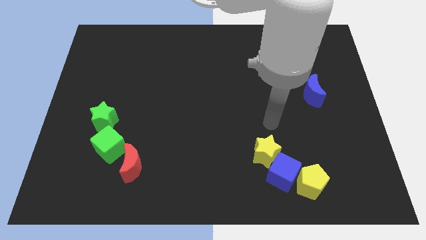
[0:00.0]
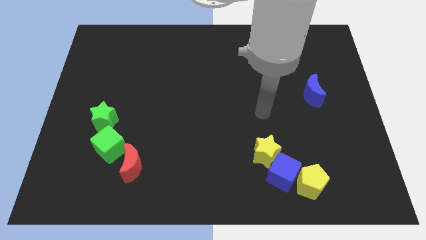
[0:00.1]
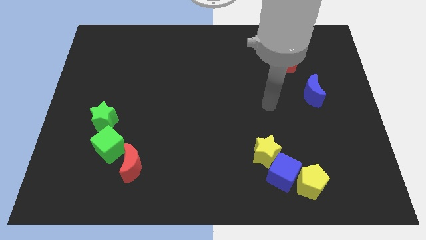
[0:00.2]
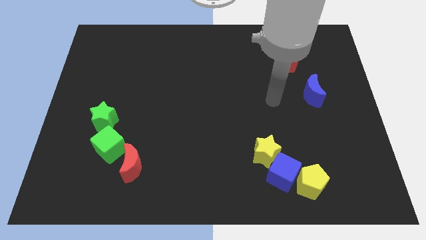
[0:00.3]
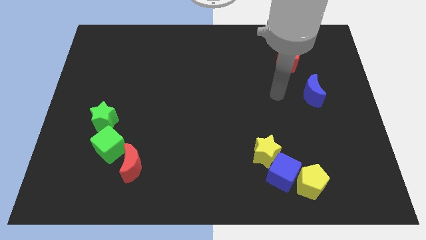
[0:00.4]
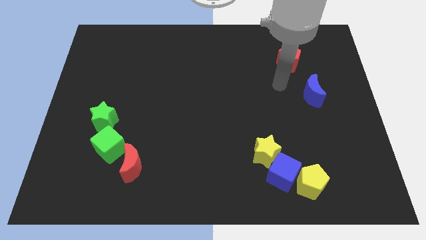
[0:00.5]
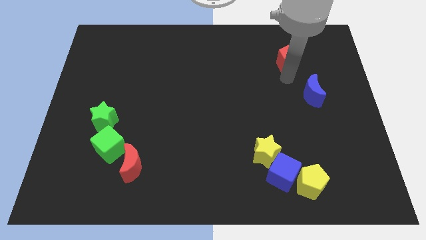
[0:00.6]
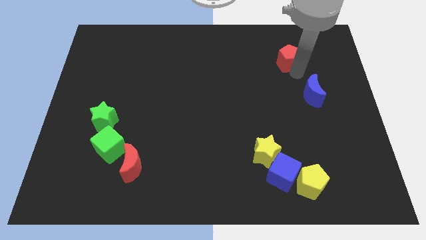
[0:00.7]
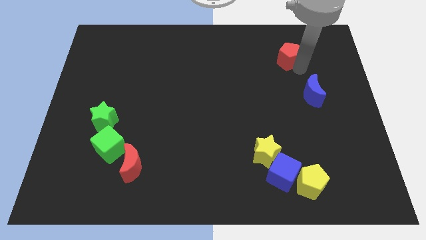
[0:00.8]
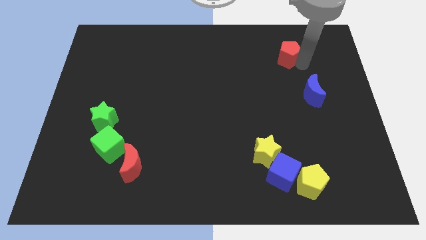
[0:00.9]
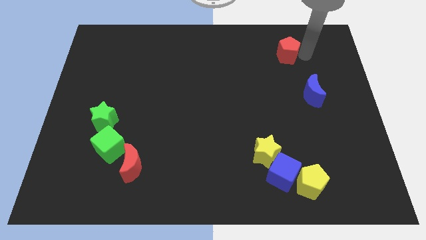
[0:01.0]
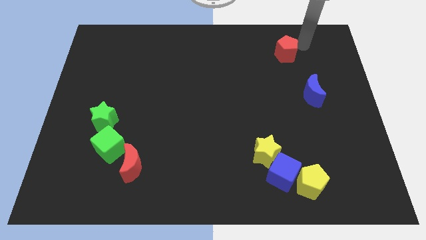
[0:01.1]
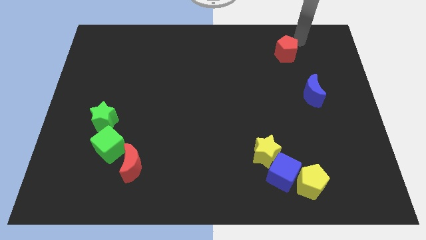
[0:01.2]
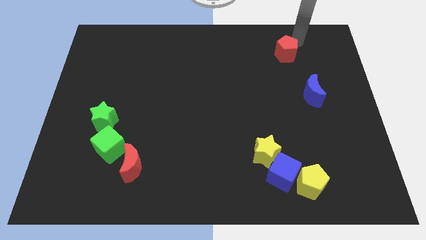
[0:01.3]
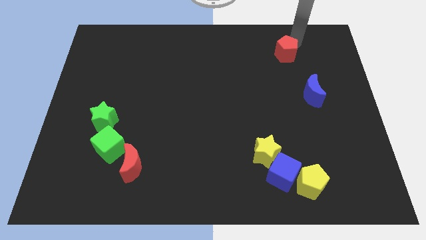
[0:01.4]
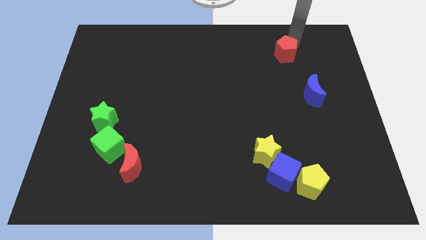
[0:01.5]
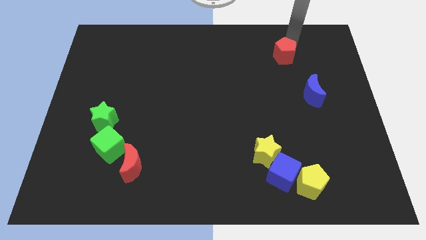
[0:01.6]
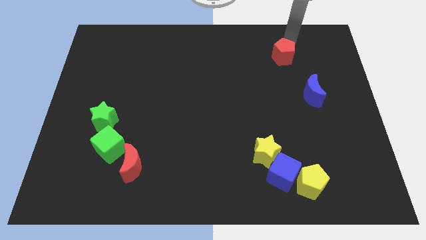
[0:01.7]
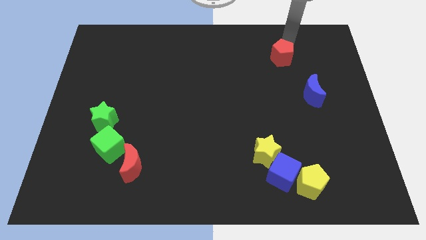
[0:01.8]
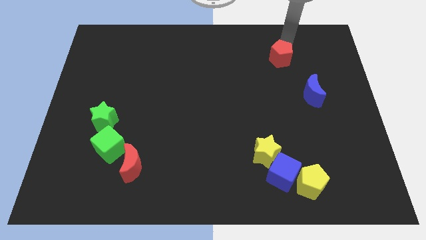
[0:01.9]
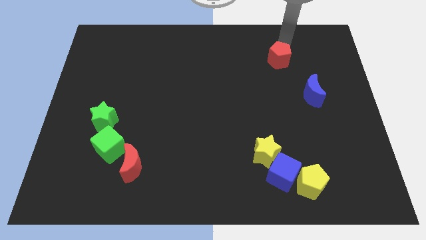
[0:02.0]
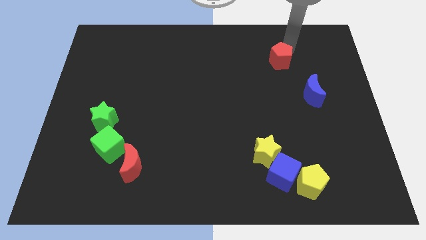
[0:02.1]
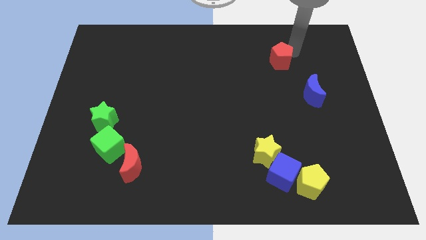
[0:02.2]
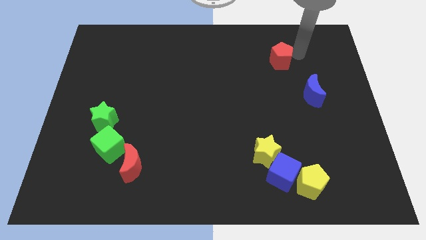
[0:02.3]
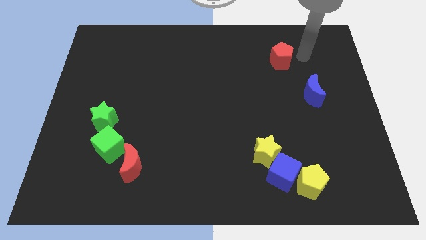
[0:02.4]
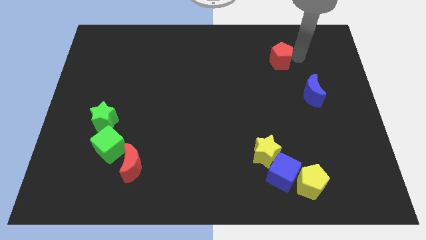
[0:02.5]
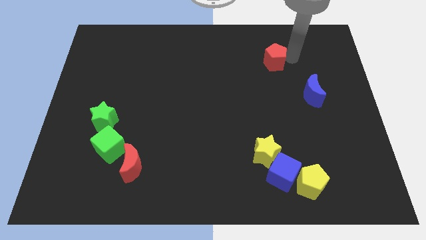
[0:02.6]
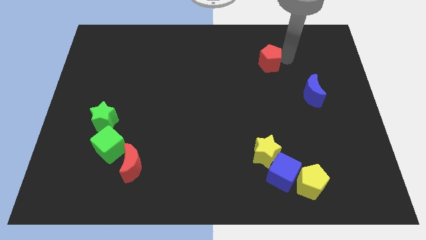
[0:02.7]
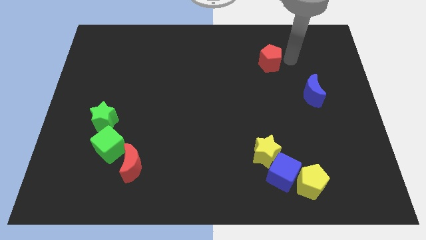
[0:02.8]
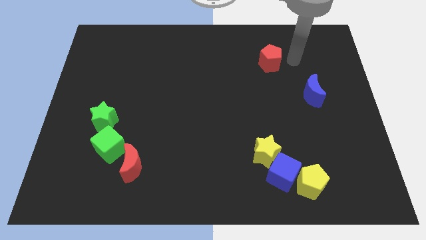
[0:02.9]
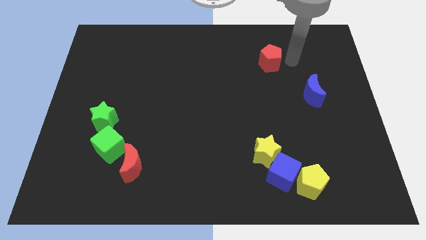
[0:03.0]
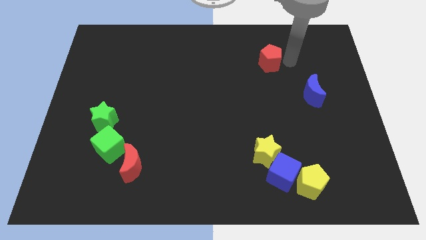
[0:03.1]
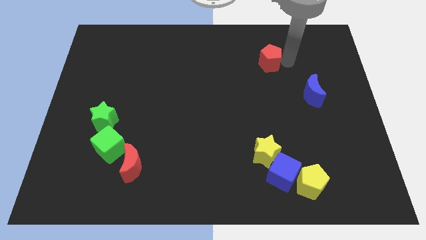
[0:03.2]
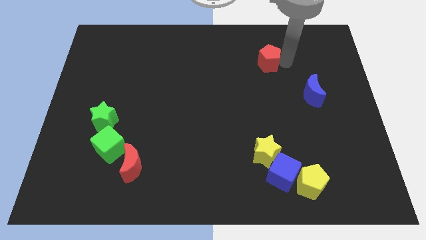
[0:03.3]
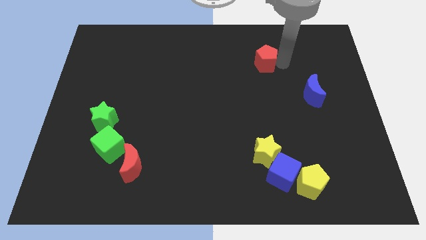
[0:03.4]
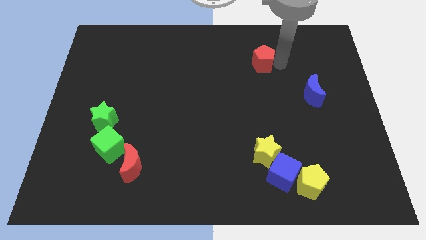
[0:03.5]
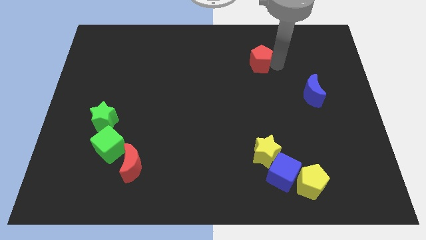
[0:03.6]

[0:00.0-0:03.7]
move the red pentagon to the left somewhat

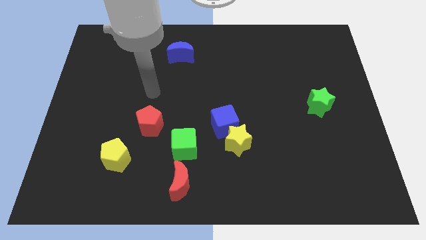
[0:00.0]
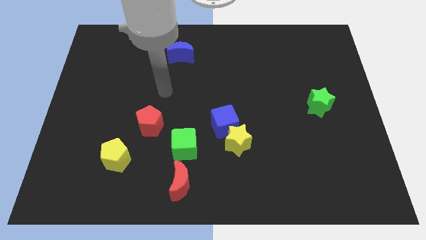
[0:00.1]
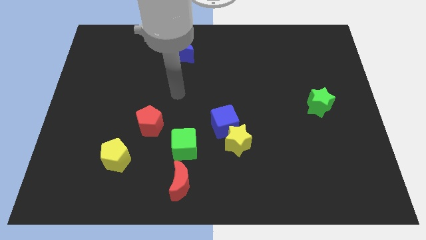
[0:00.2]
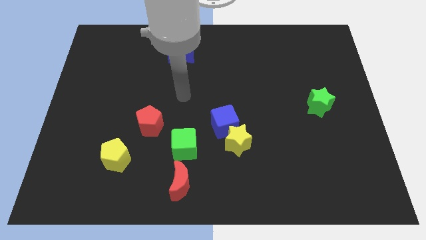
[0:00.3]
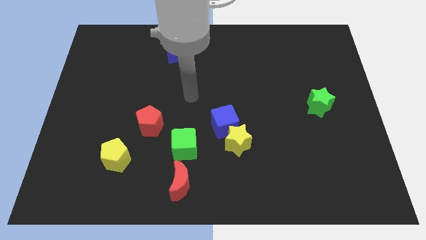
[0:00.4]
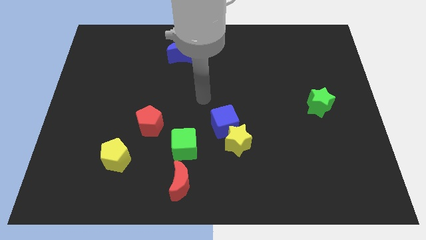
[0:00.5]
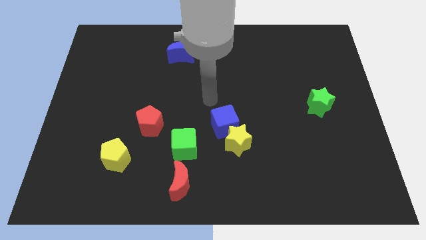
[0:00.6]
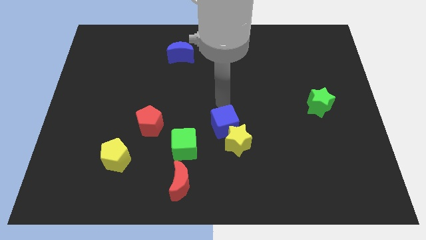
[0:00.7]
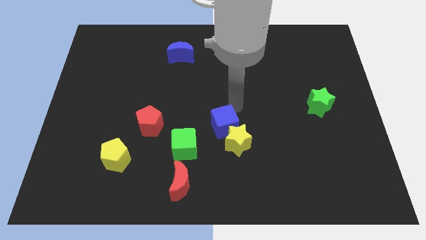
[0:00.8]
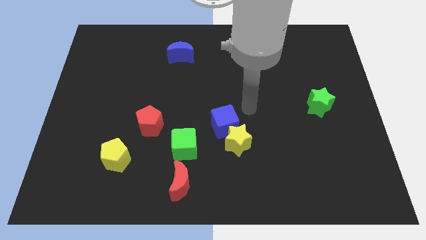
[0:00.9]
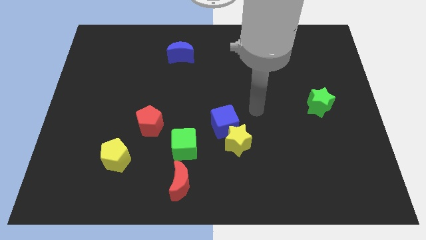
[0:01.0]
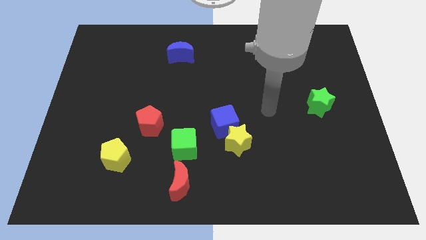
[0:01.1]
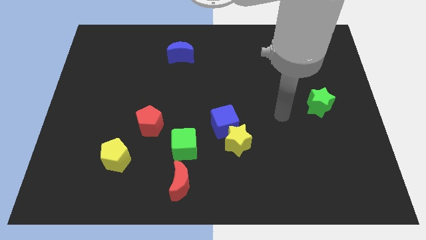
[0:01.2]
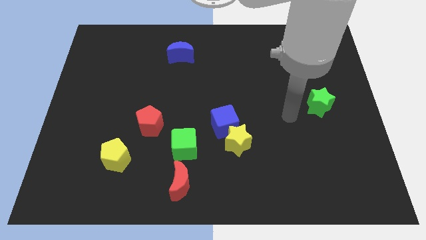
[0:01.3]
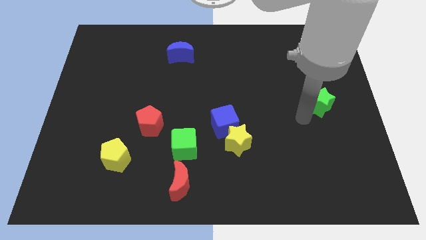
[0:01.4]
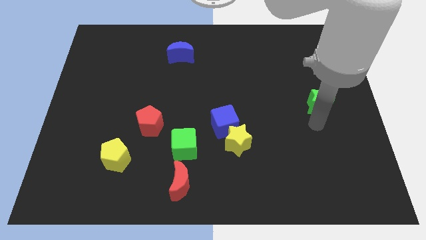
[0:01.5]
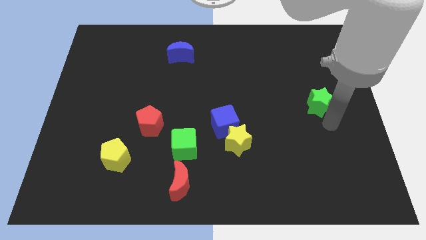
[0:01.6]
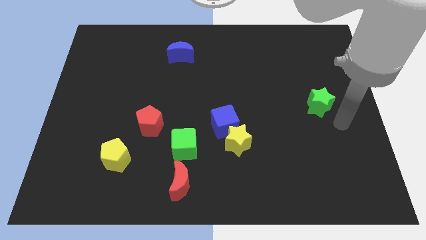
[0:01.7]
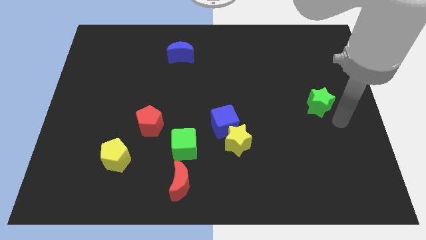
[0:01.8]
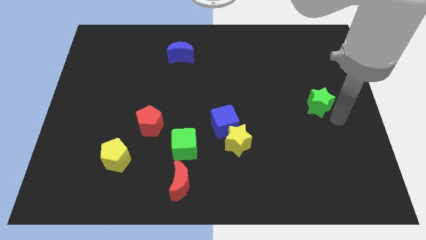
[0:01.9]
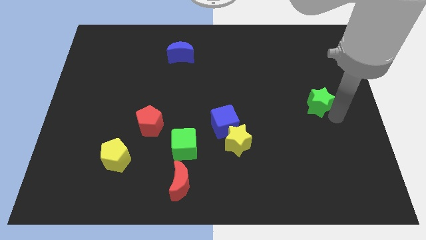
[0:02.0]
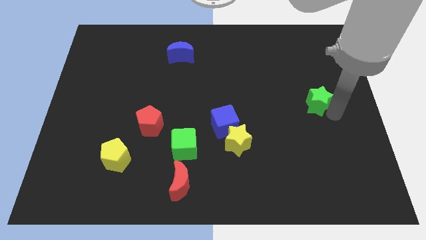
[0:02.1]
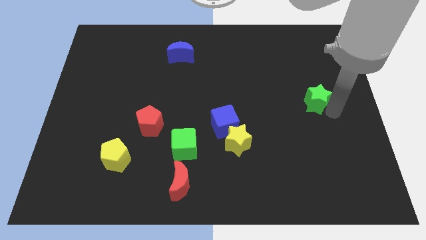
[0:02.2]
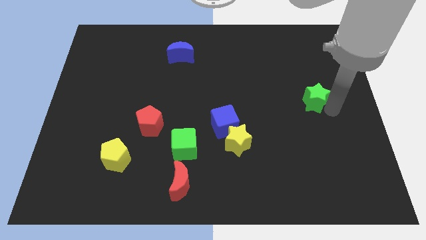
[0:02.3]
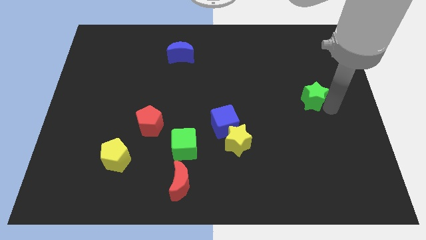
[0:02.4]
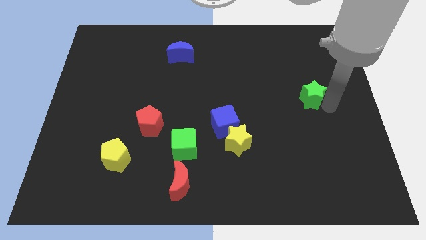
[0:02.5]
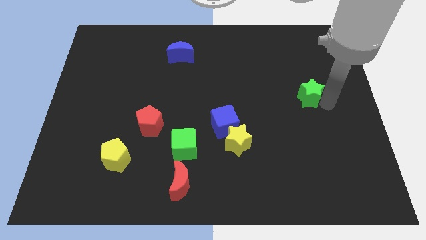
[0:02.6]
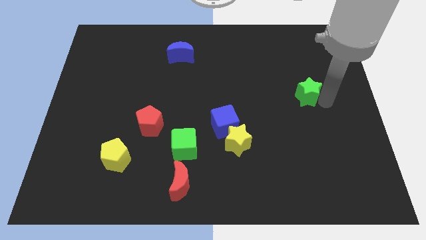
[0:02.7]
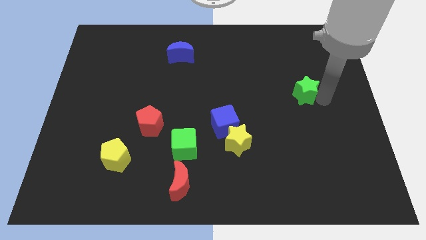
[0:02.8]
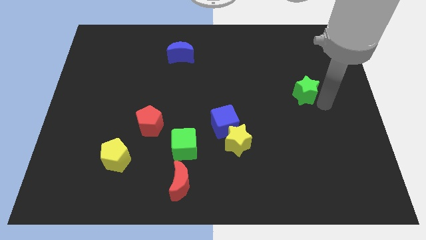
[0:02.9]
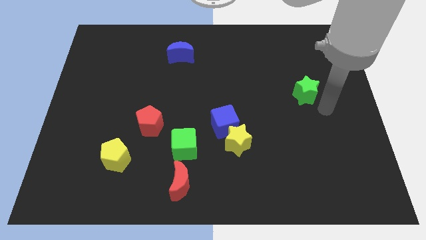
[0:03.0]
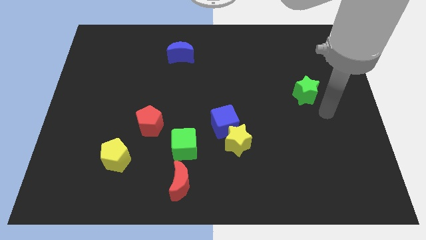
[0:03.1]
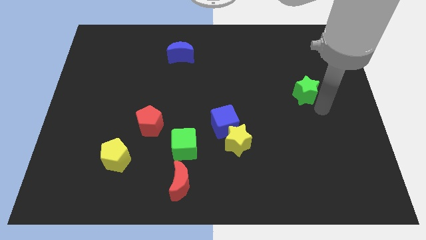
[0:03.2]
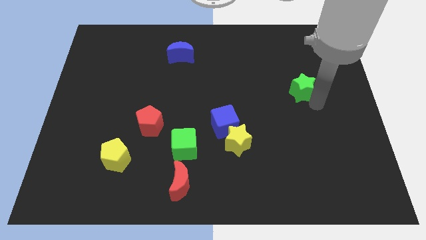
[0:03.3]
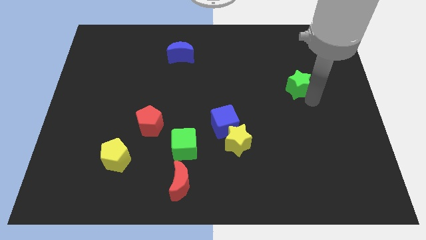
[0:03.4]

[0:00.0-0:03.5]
push the green star upwards and then to the left somewhat

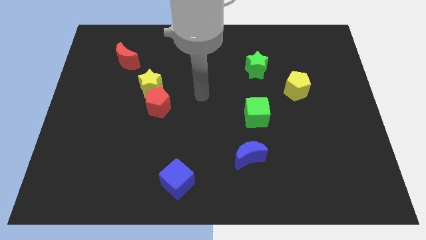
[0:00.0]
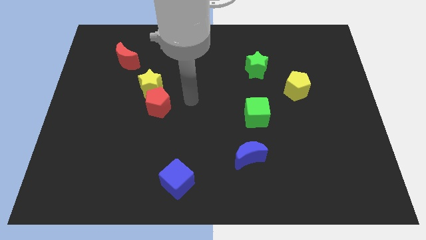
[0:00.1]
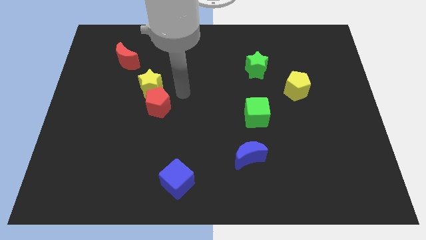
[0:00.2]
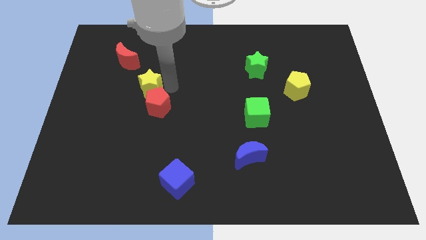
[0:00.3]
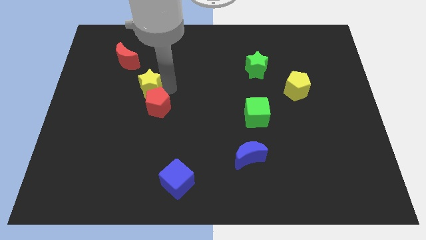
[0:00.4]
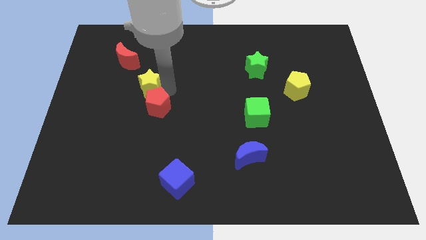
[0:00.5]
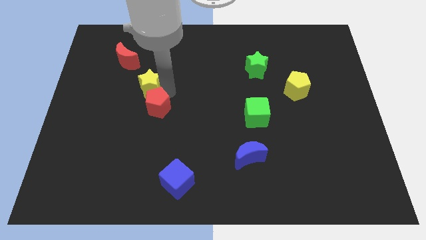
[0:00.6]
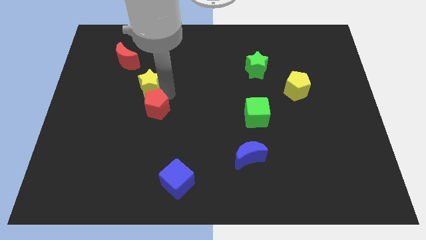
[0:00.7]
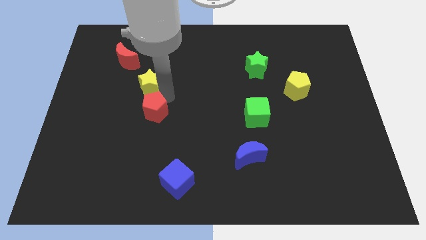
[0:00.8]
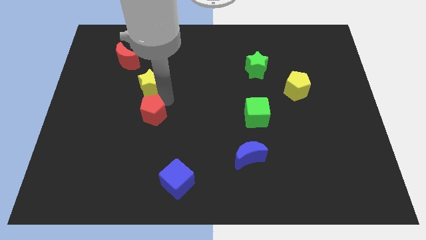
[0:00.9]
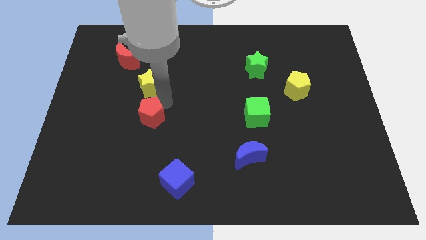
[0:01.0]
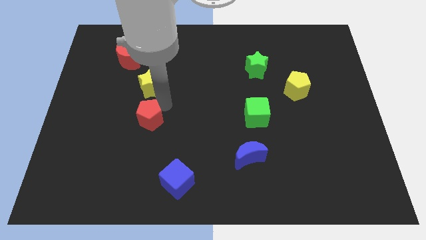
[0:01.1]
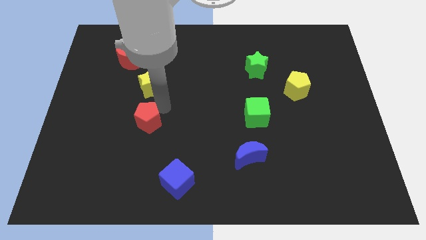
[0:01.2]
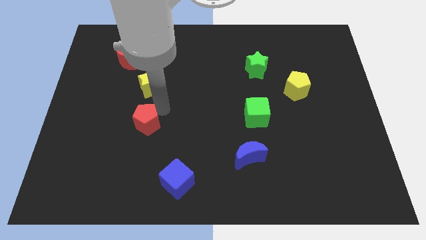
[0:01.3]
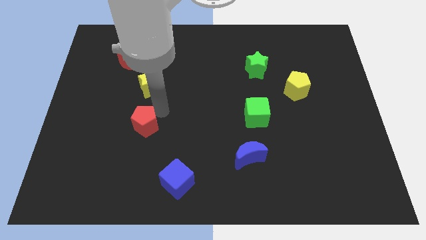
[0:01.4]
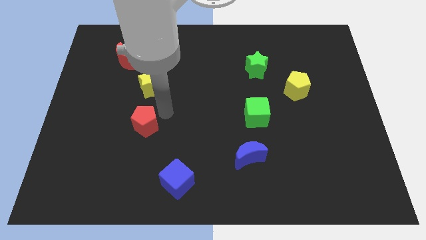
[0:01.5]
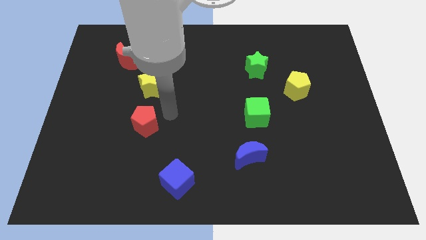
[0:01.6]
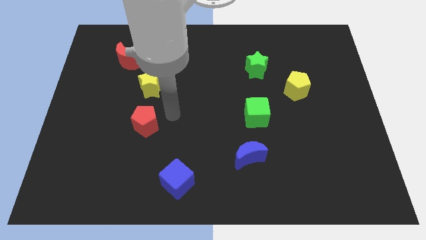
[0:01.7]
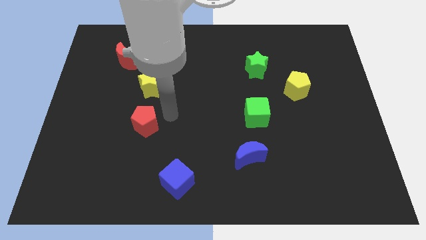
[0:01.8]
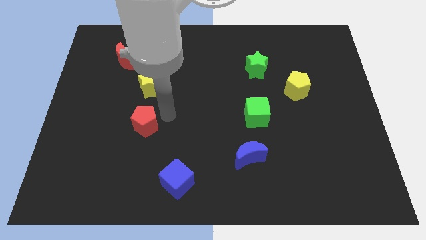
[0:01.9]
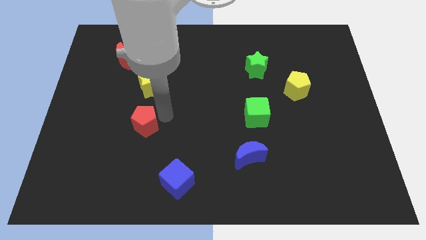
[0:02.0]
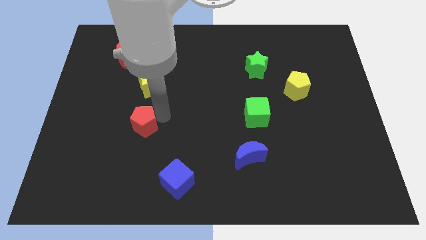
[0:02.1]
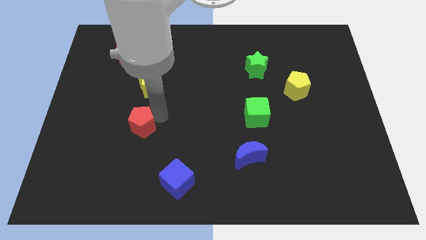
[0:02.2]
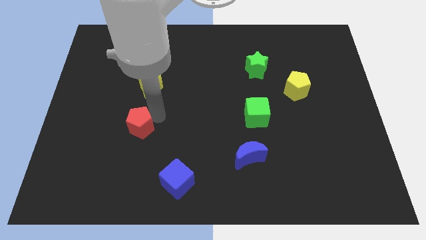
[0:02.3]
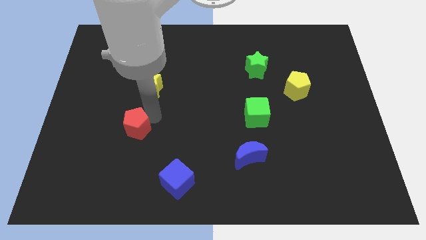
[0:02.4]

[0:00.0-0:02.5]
slightly slide the red pentagon diagonally down and left
